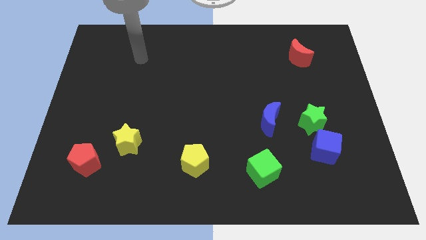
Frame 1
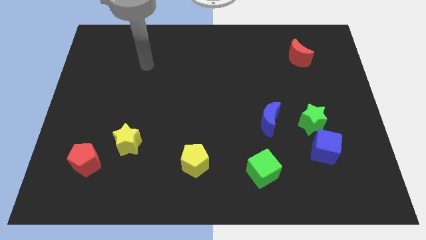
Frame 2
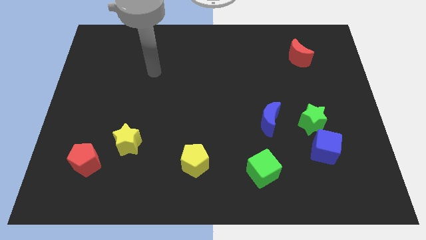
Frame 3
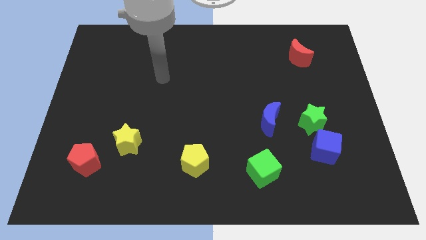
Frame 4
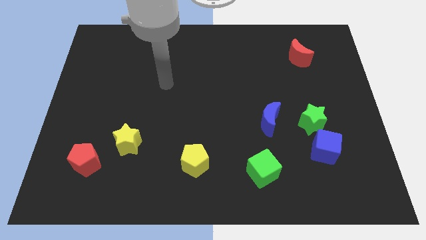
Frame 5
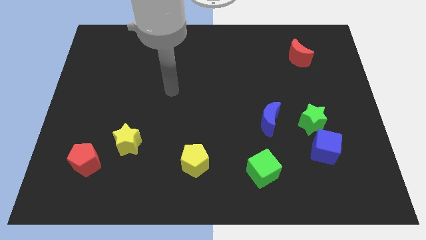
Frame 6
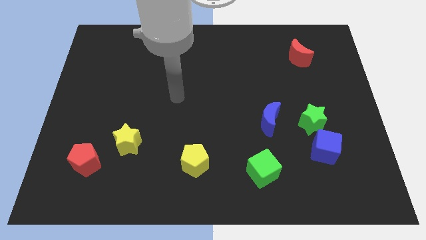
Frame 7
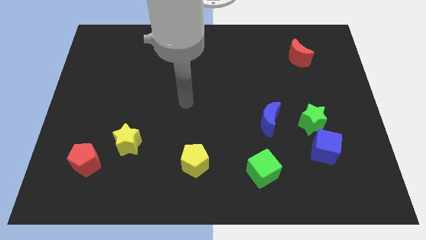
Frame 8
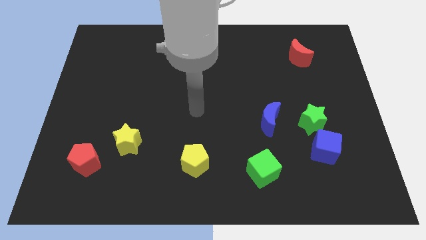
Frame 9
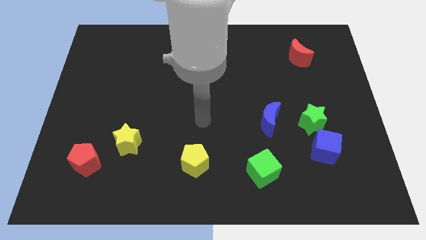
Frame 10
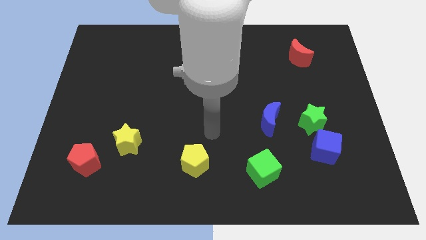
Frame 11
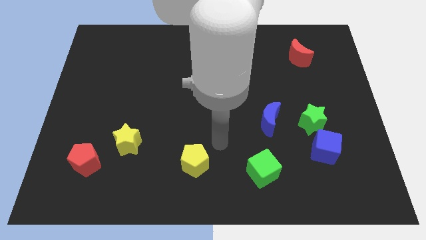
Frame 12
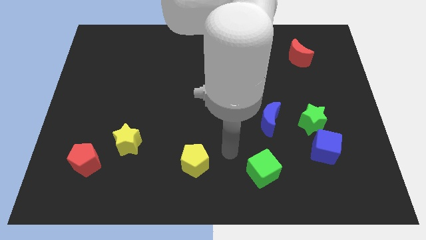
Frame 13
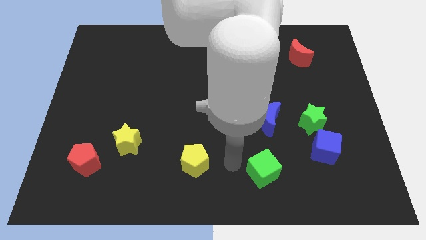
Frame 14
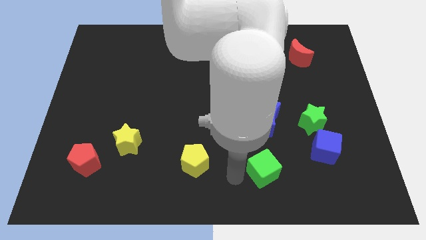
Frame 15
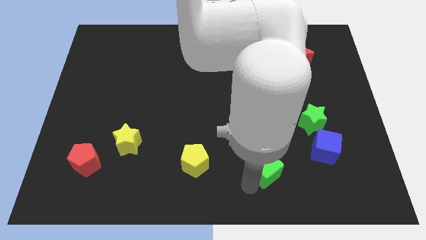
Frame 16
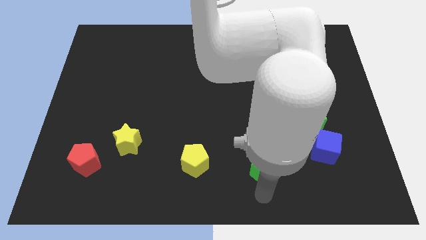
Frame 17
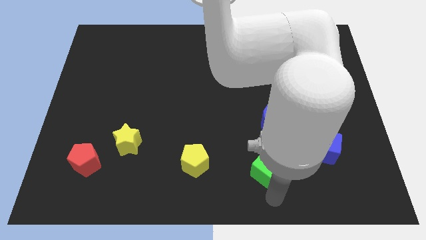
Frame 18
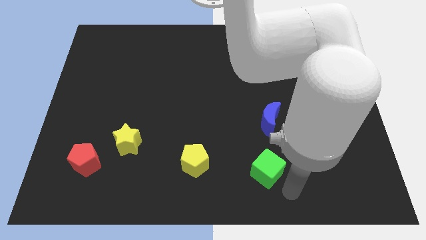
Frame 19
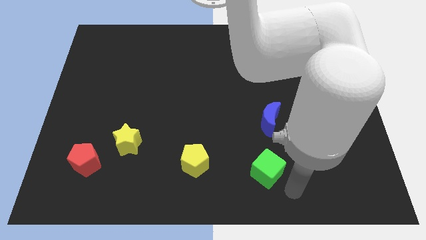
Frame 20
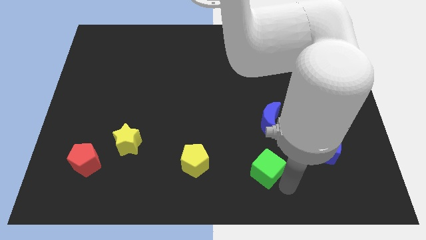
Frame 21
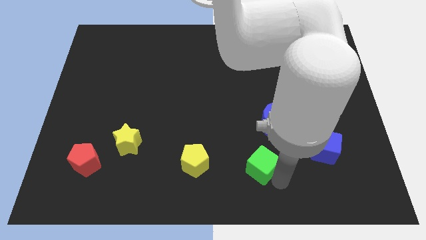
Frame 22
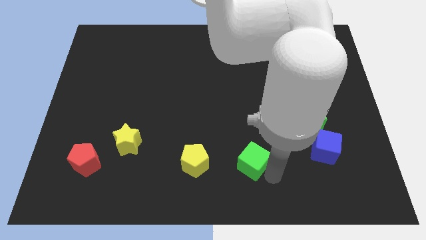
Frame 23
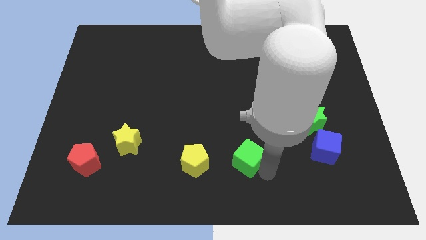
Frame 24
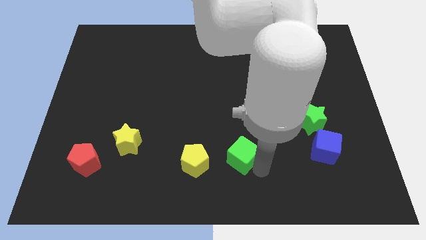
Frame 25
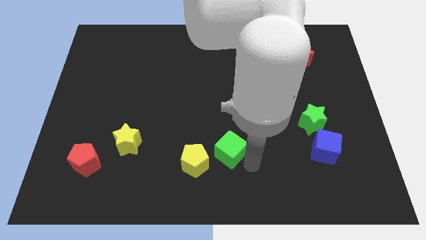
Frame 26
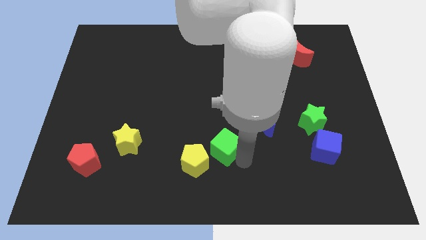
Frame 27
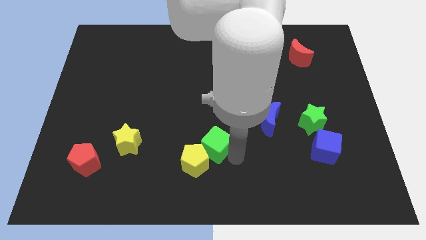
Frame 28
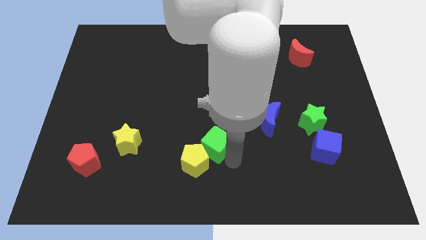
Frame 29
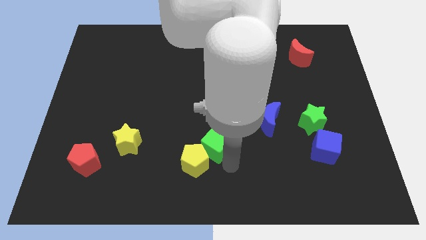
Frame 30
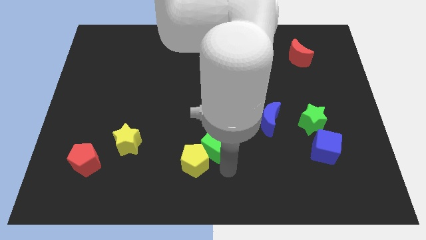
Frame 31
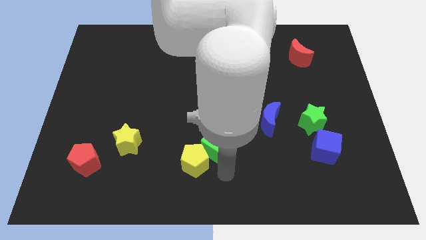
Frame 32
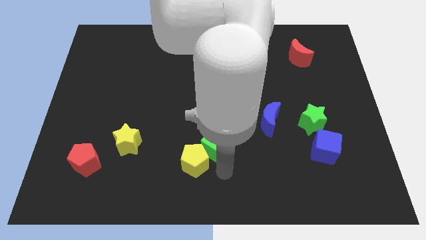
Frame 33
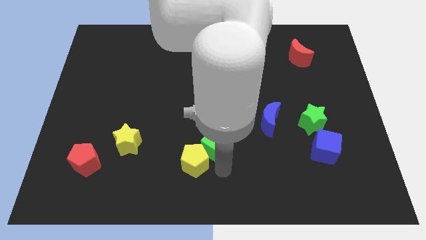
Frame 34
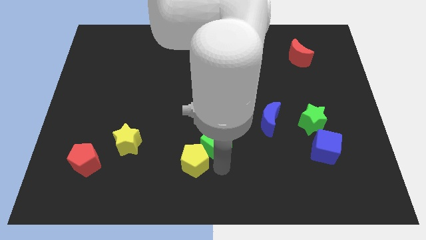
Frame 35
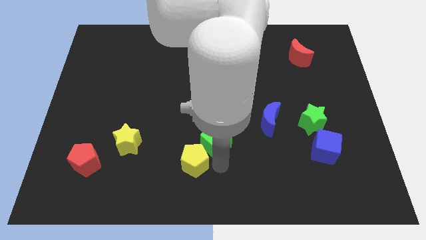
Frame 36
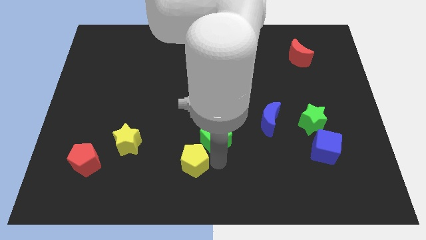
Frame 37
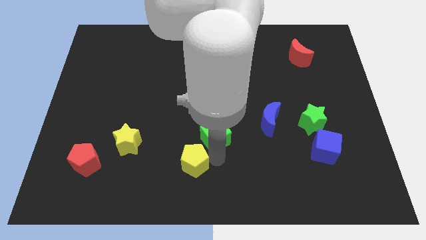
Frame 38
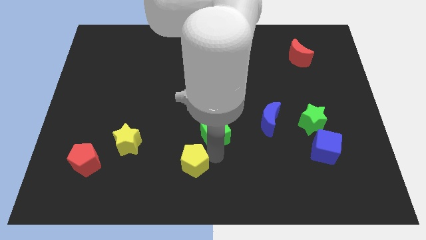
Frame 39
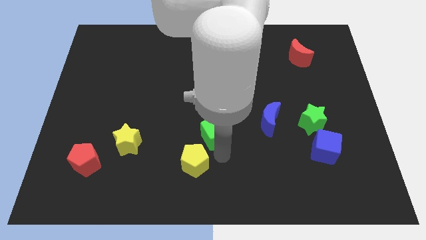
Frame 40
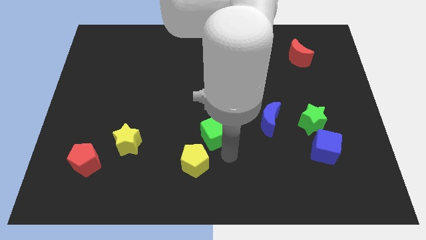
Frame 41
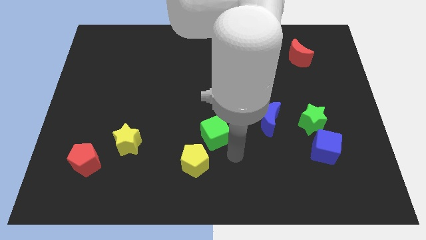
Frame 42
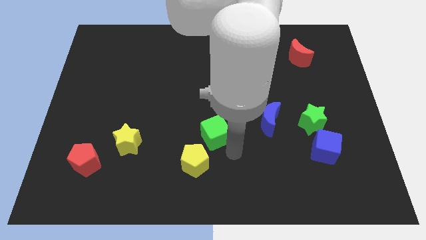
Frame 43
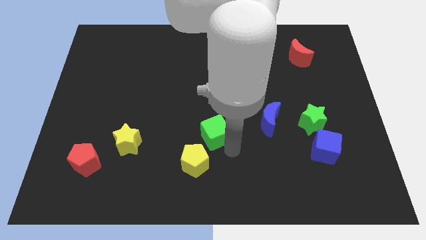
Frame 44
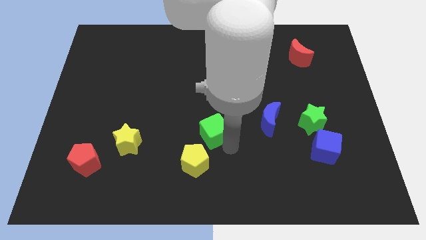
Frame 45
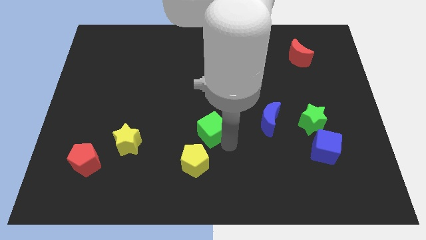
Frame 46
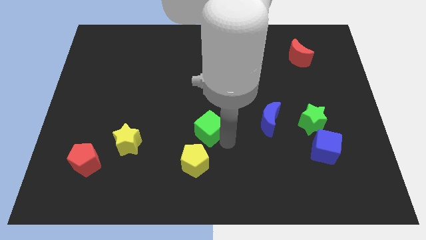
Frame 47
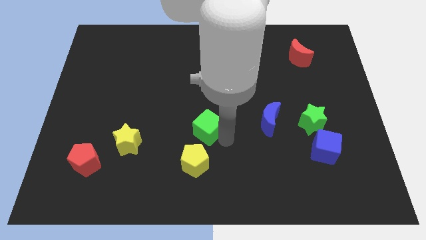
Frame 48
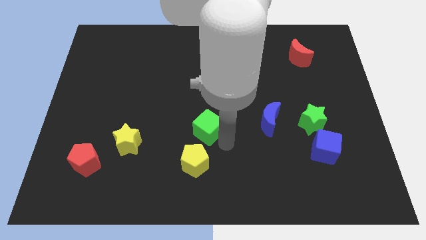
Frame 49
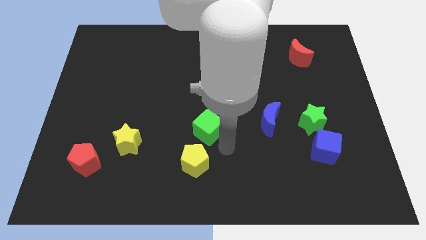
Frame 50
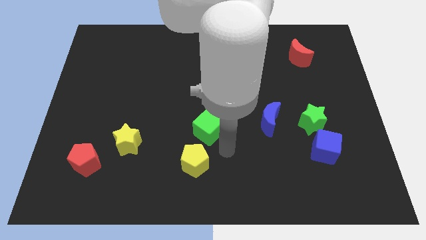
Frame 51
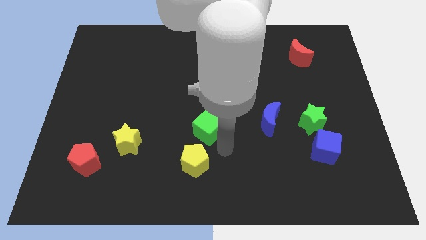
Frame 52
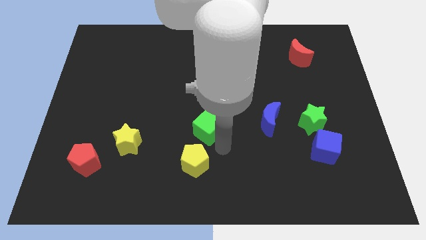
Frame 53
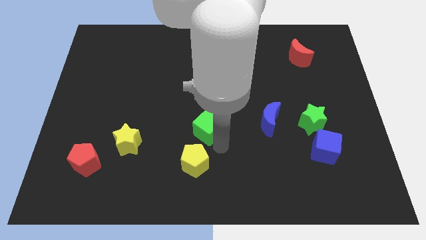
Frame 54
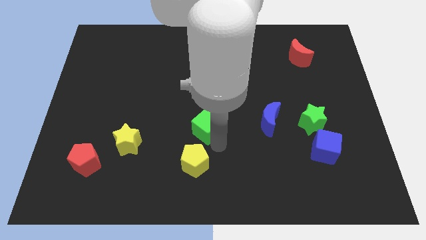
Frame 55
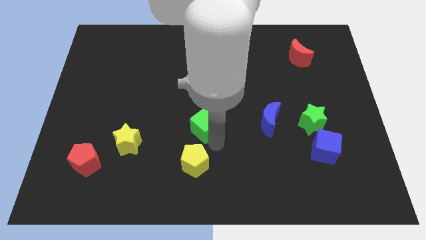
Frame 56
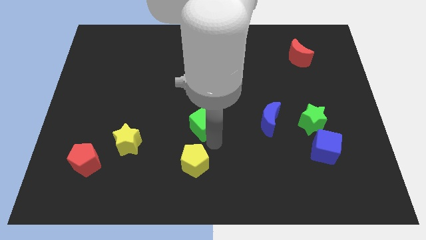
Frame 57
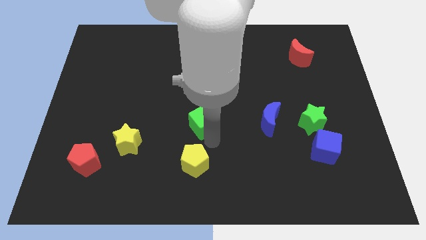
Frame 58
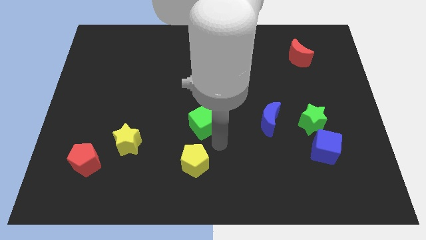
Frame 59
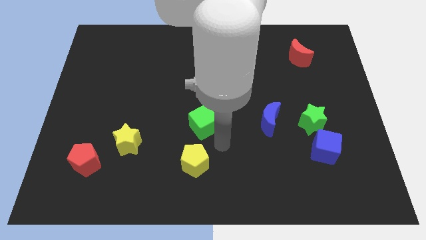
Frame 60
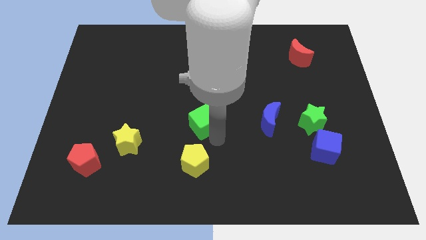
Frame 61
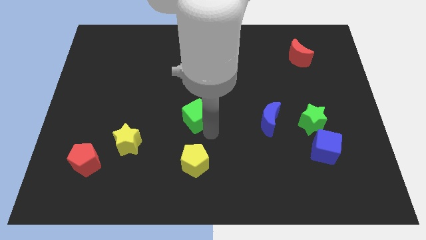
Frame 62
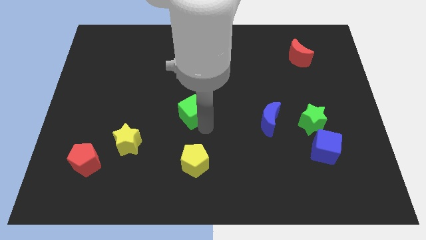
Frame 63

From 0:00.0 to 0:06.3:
move the green cube diagonally upwards and to the left

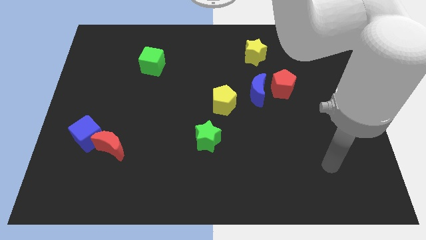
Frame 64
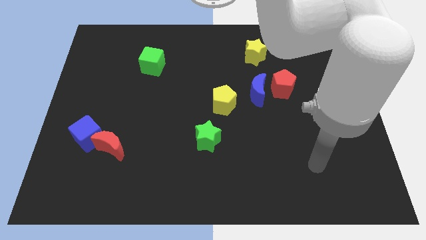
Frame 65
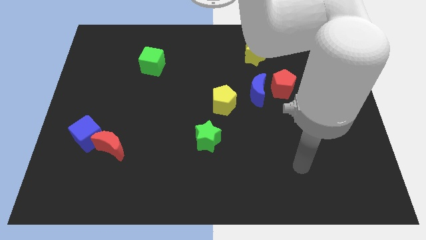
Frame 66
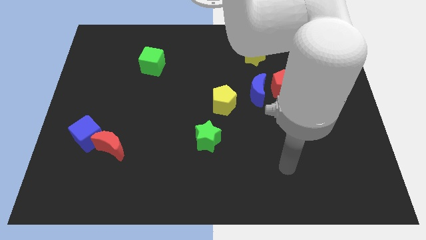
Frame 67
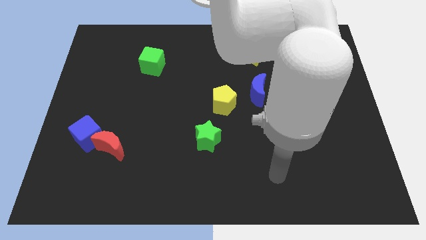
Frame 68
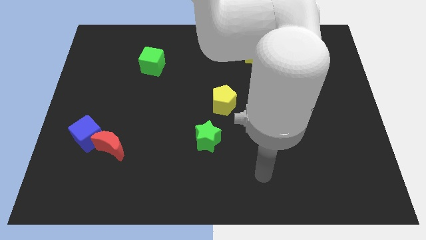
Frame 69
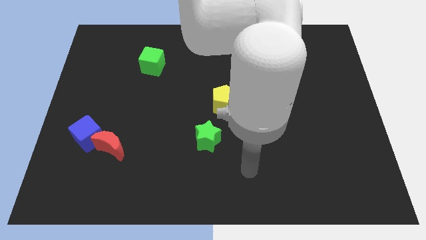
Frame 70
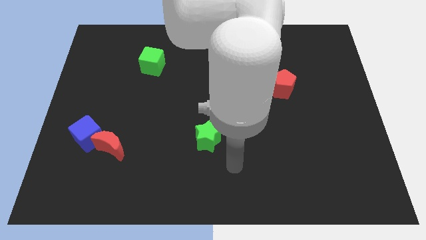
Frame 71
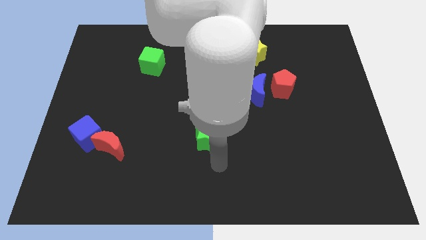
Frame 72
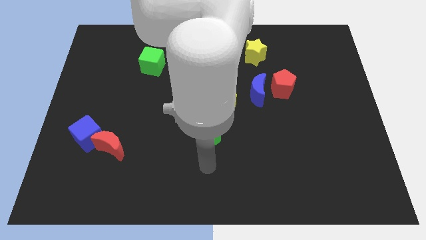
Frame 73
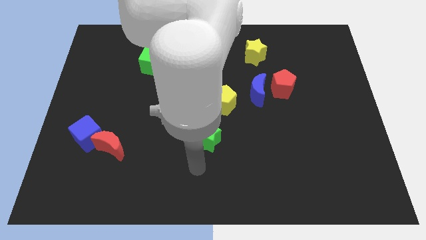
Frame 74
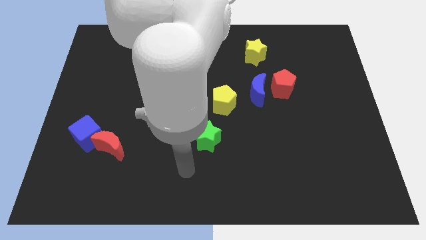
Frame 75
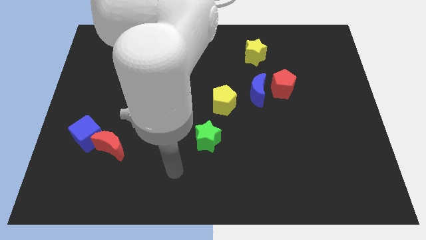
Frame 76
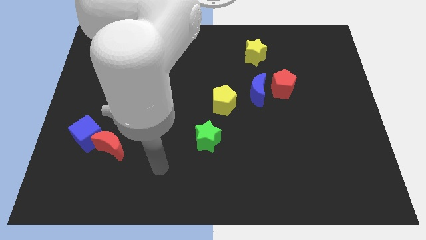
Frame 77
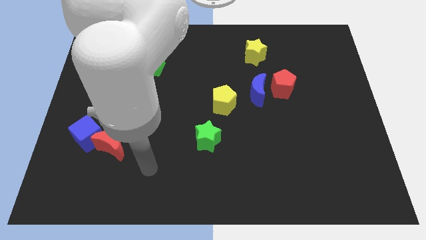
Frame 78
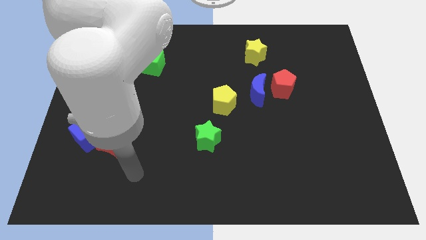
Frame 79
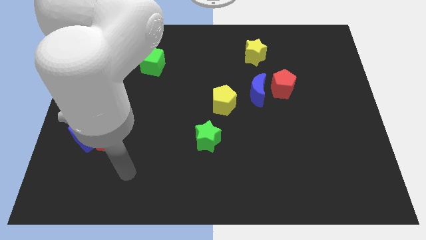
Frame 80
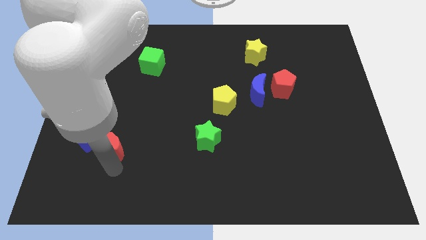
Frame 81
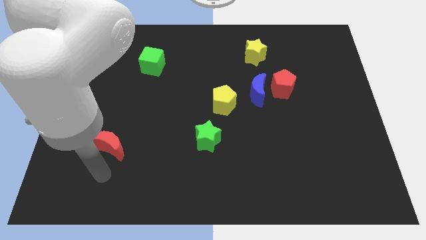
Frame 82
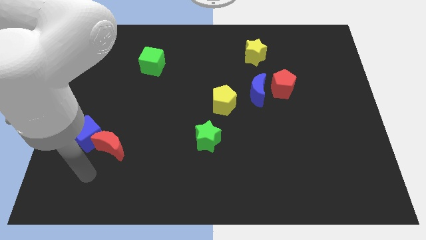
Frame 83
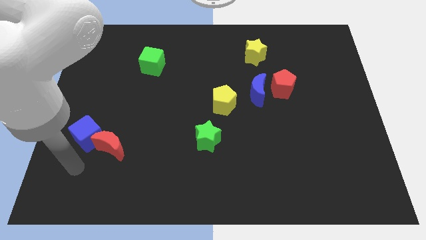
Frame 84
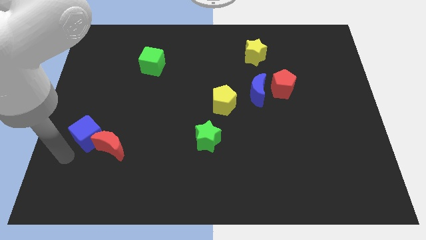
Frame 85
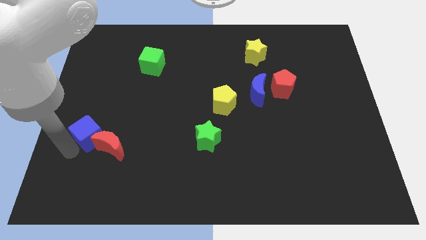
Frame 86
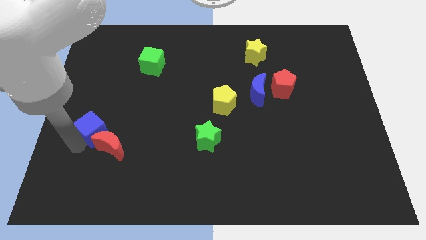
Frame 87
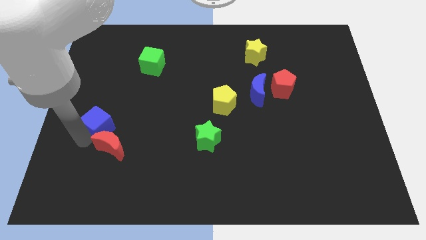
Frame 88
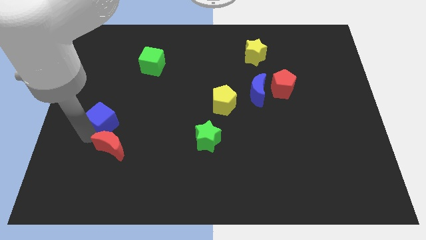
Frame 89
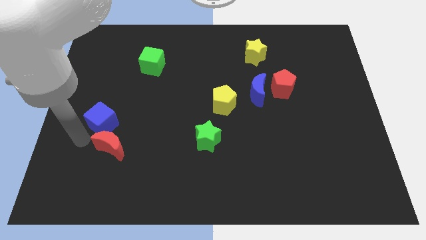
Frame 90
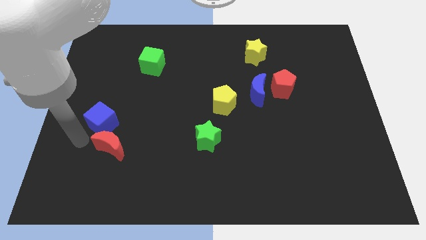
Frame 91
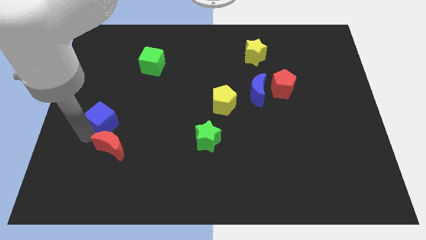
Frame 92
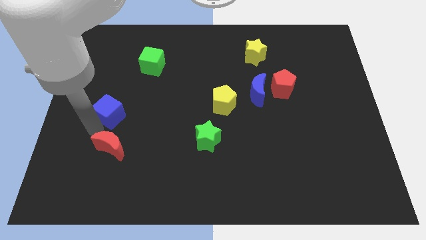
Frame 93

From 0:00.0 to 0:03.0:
slightly push the blue cube upwards and then right
